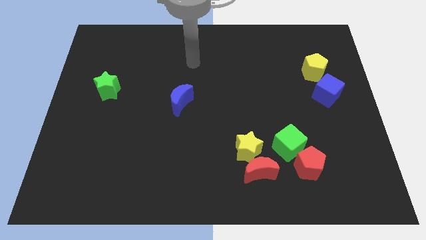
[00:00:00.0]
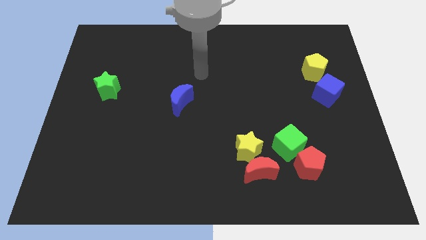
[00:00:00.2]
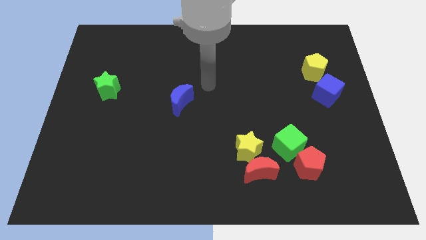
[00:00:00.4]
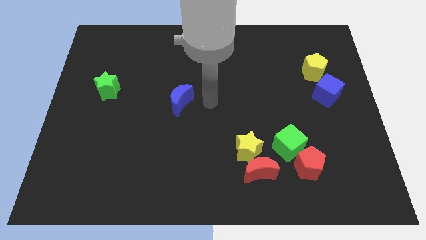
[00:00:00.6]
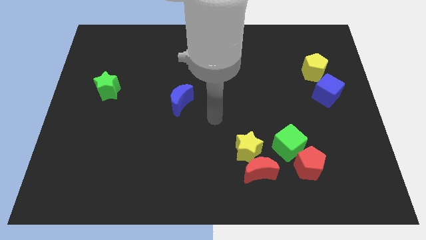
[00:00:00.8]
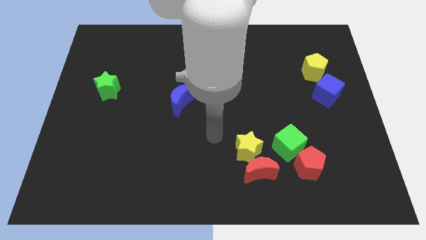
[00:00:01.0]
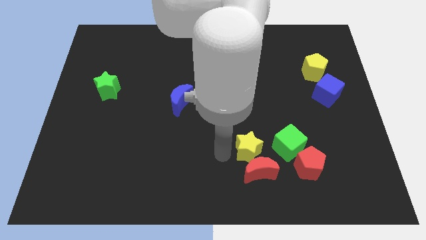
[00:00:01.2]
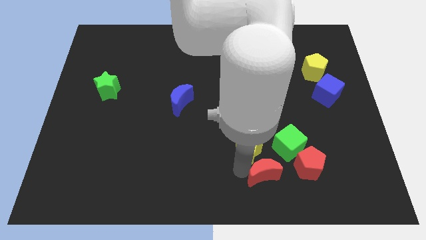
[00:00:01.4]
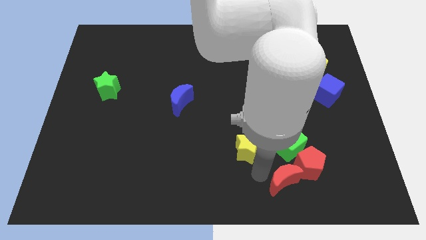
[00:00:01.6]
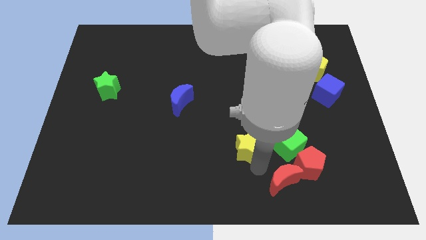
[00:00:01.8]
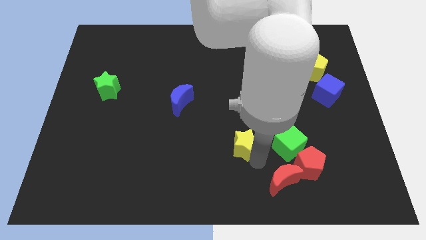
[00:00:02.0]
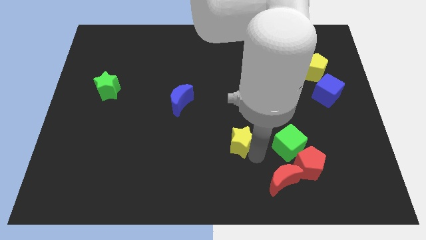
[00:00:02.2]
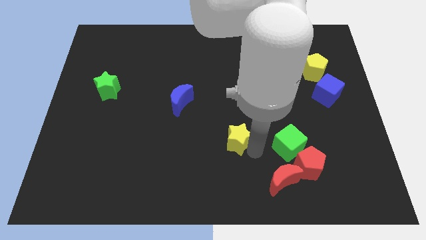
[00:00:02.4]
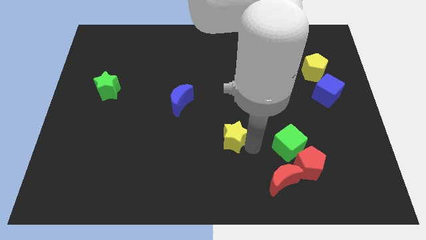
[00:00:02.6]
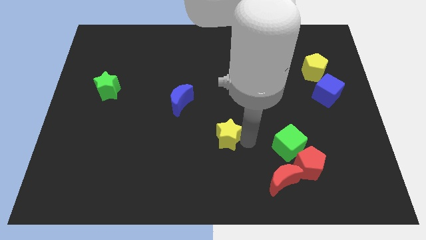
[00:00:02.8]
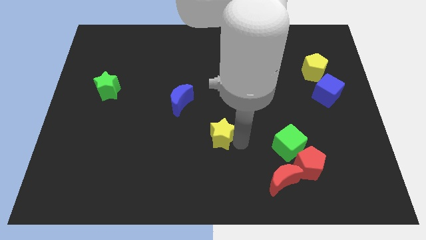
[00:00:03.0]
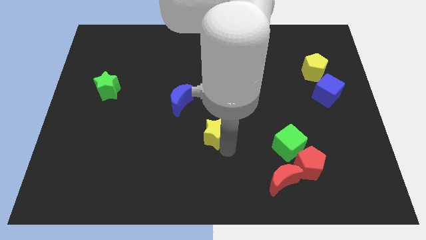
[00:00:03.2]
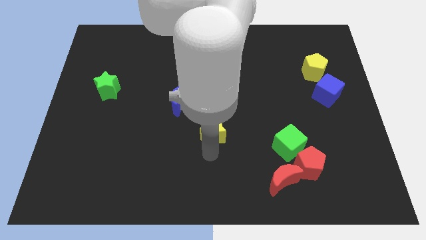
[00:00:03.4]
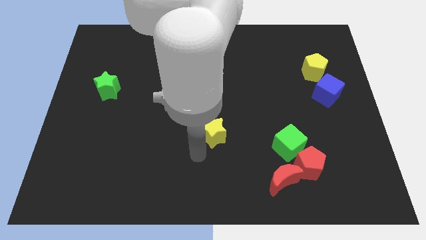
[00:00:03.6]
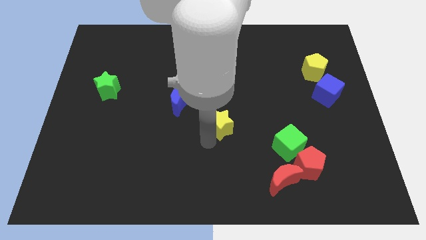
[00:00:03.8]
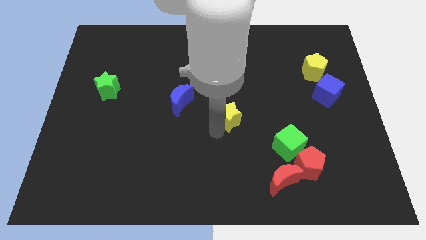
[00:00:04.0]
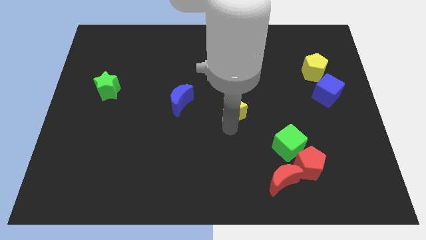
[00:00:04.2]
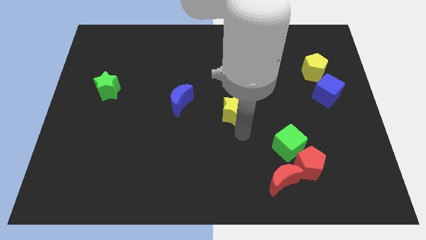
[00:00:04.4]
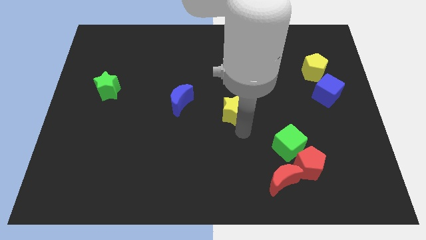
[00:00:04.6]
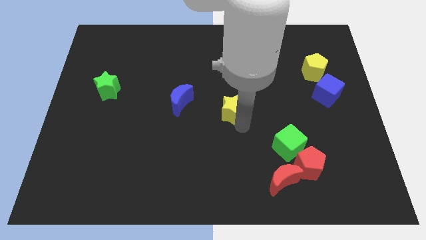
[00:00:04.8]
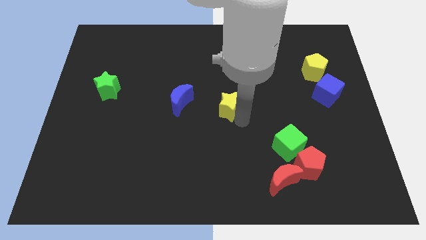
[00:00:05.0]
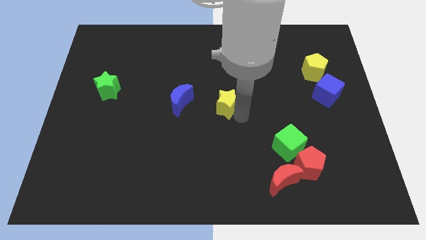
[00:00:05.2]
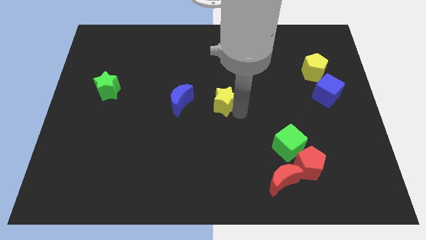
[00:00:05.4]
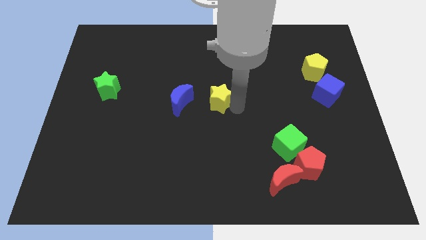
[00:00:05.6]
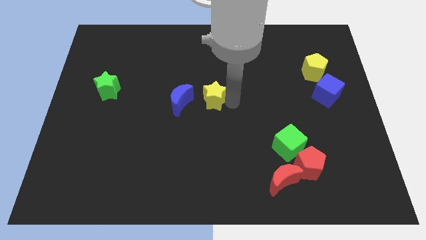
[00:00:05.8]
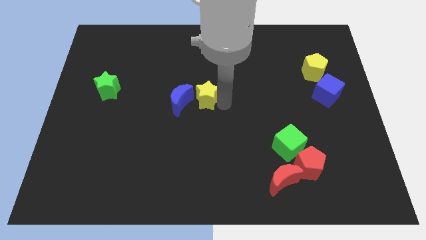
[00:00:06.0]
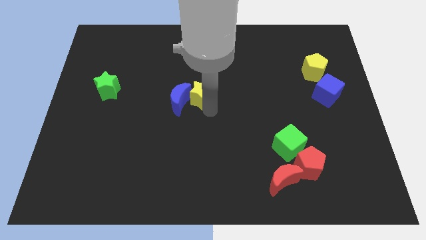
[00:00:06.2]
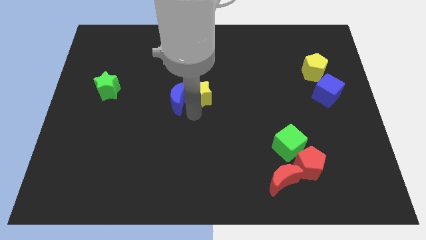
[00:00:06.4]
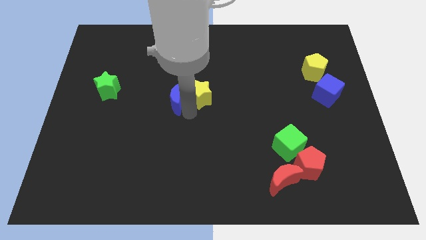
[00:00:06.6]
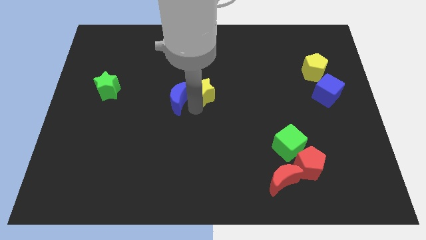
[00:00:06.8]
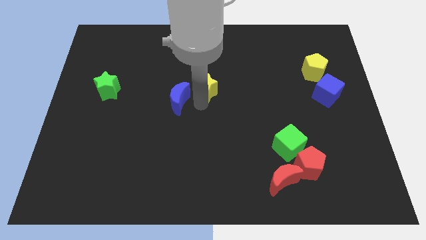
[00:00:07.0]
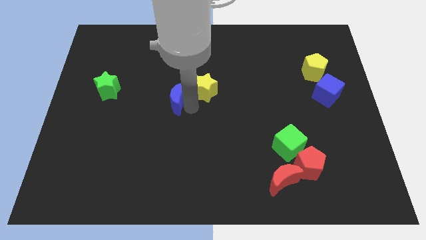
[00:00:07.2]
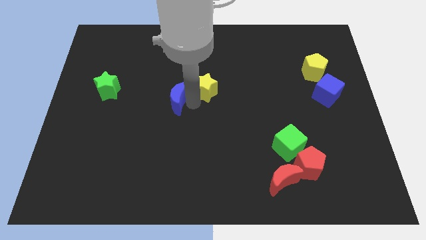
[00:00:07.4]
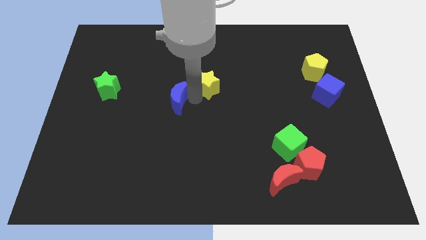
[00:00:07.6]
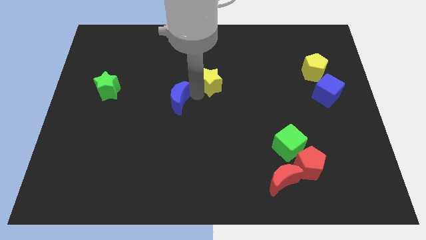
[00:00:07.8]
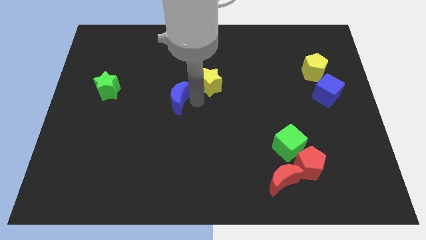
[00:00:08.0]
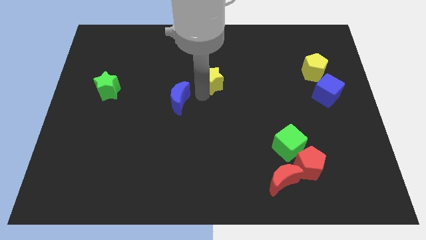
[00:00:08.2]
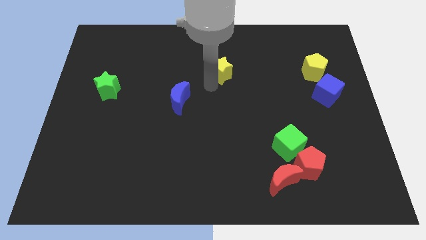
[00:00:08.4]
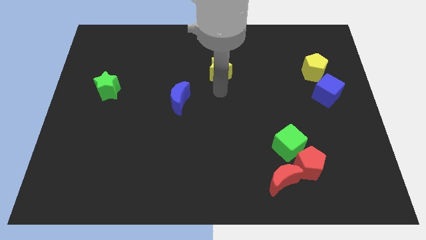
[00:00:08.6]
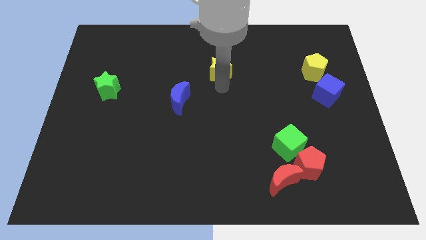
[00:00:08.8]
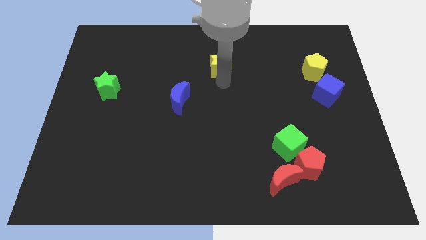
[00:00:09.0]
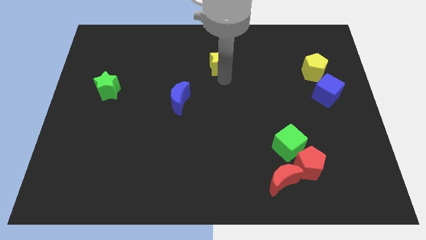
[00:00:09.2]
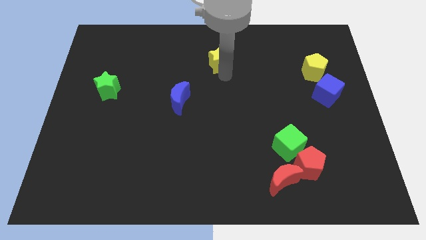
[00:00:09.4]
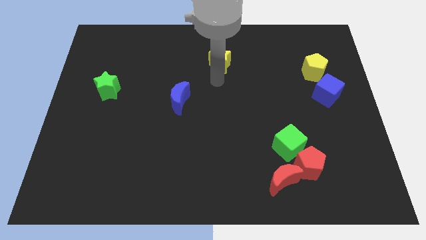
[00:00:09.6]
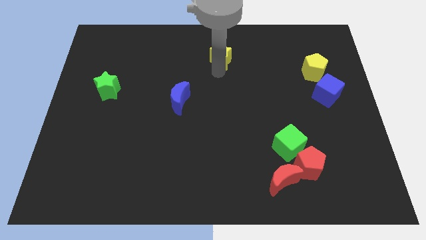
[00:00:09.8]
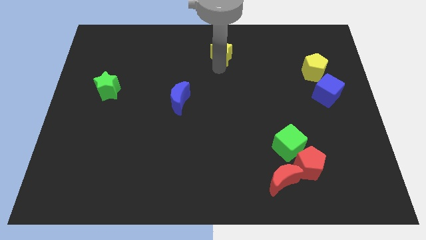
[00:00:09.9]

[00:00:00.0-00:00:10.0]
put the yellow star to the top side
